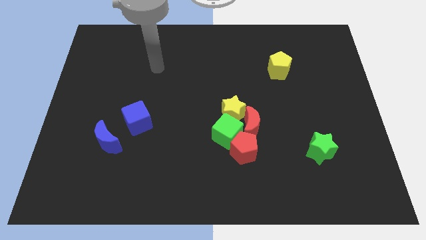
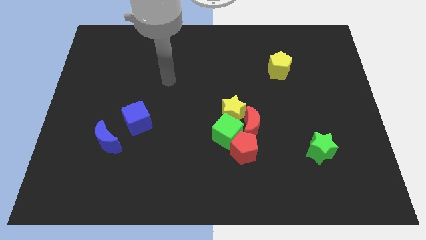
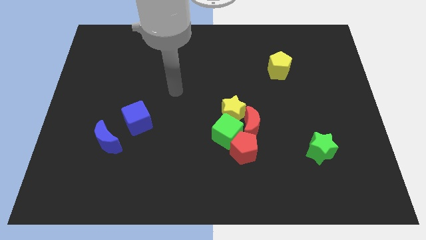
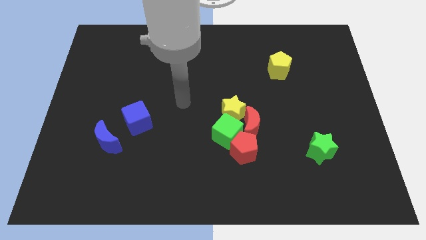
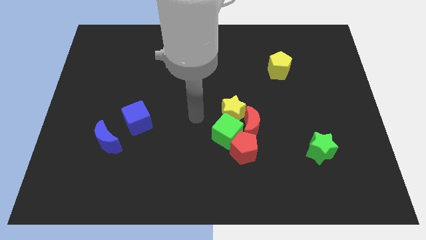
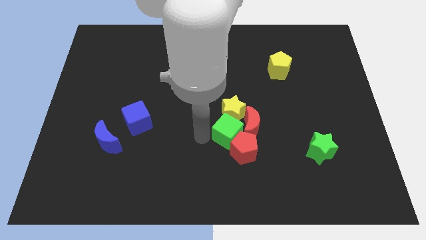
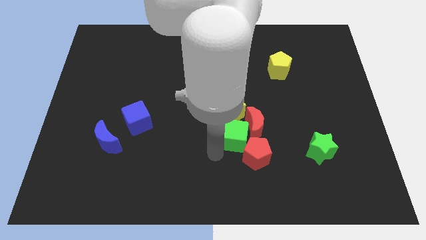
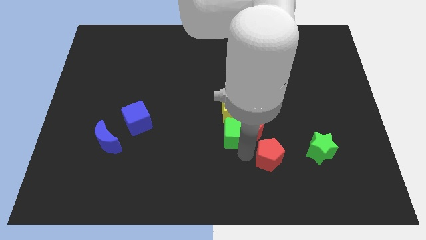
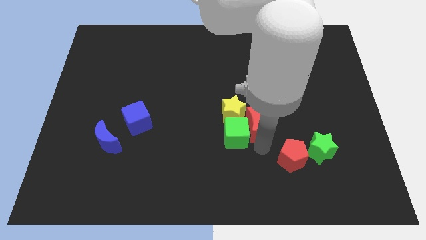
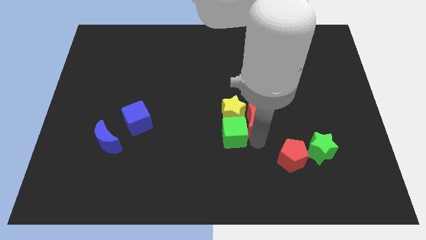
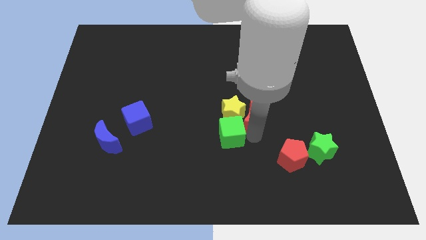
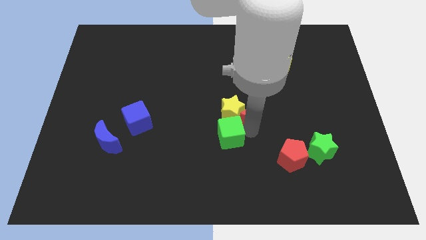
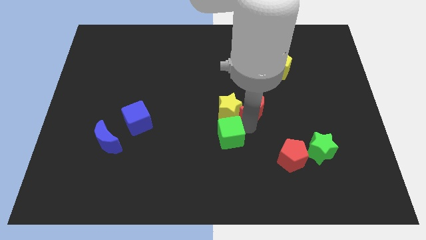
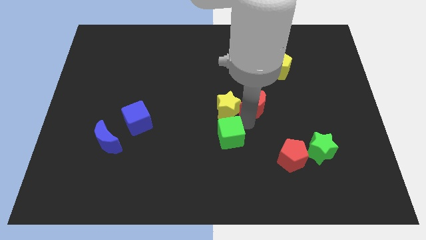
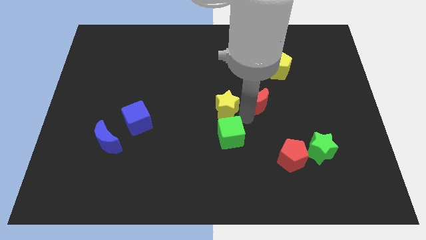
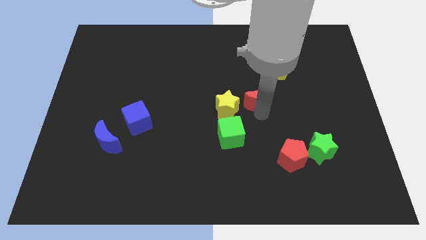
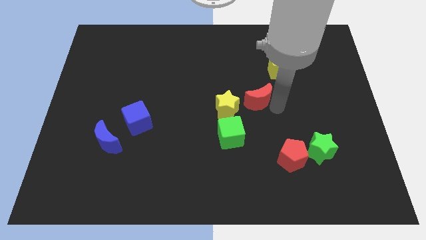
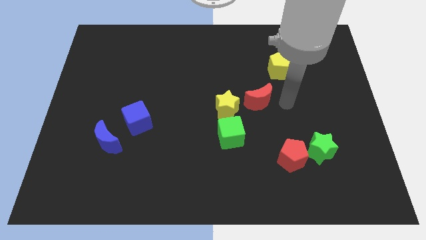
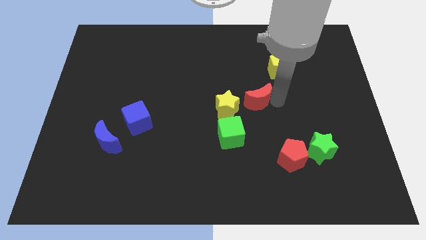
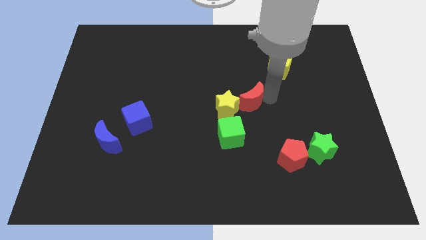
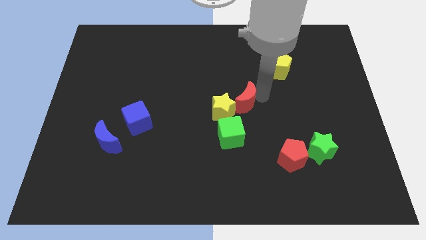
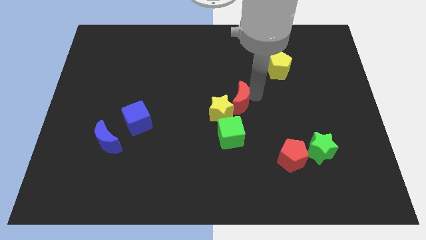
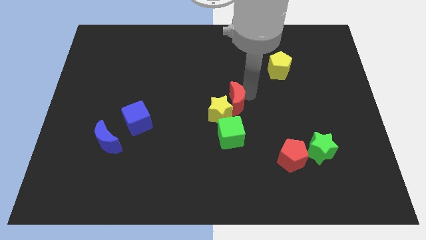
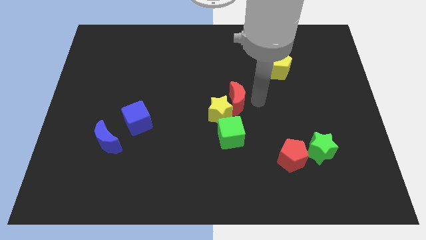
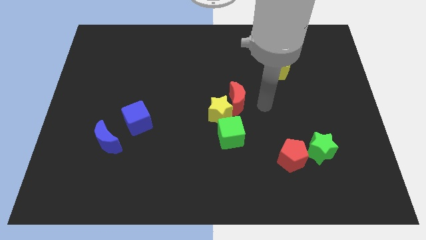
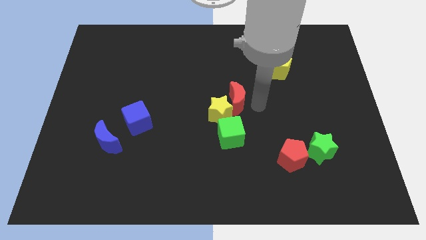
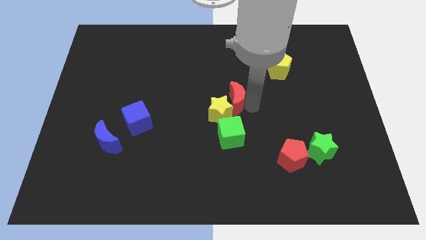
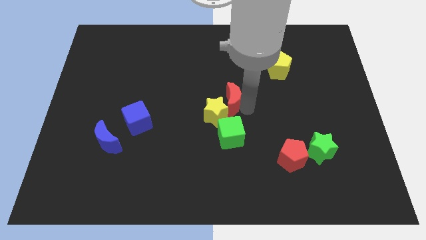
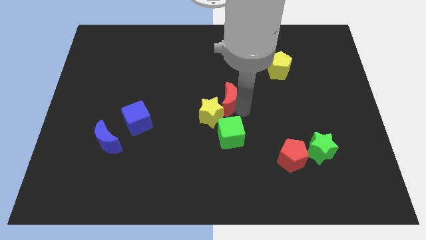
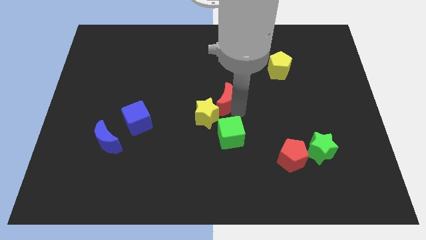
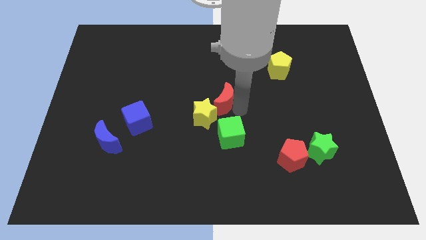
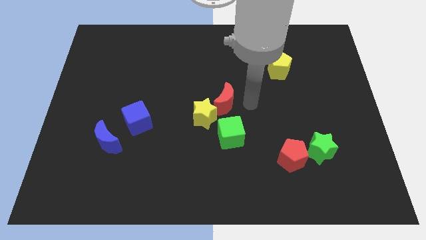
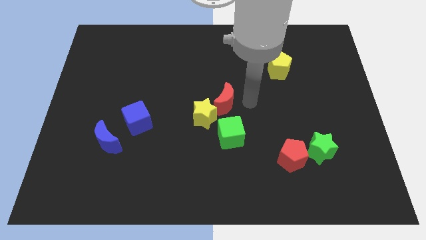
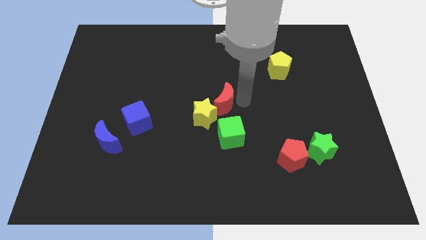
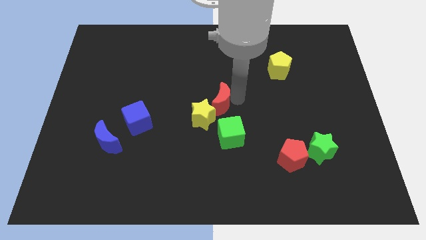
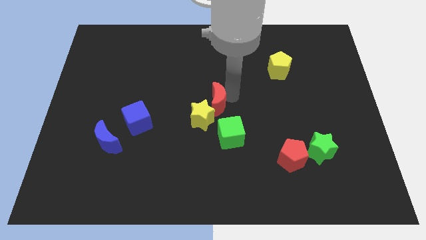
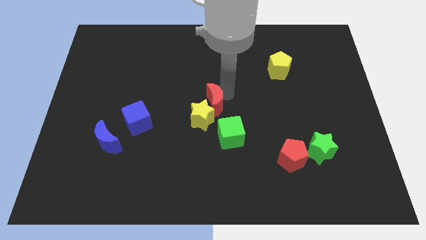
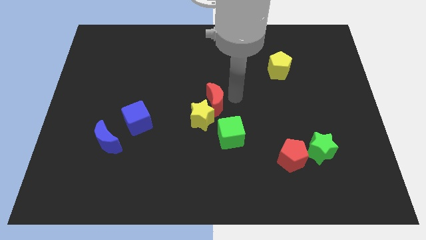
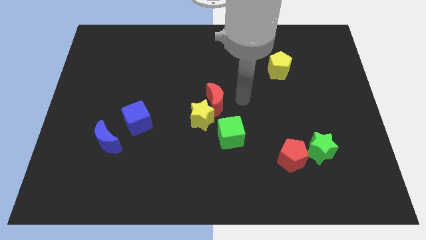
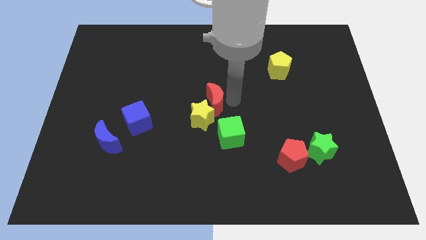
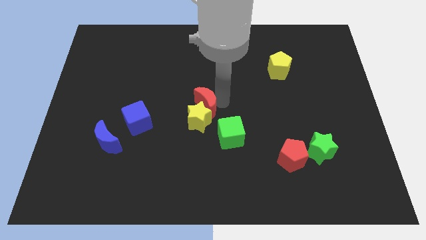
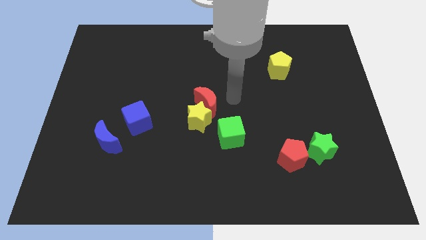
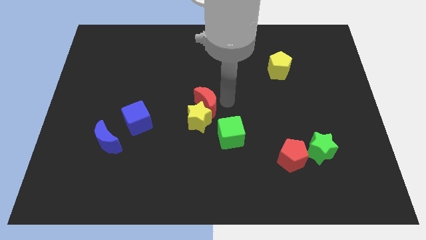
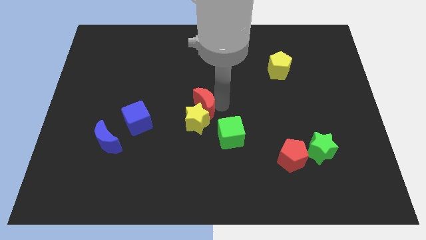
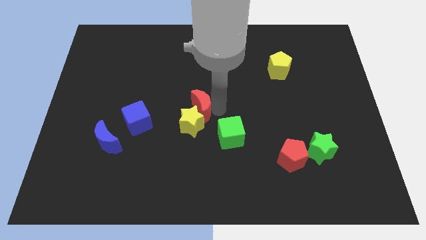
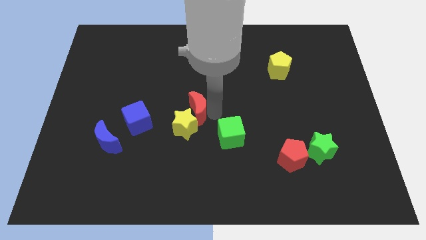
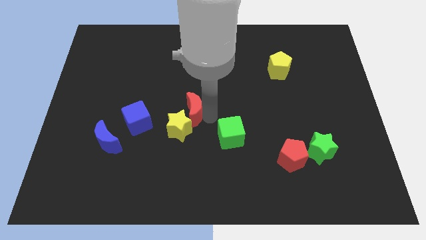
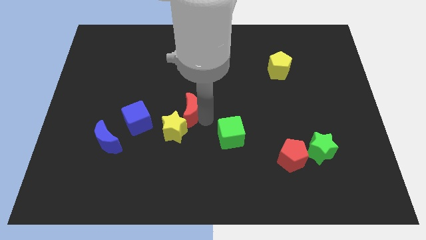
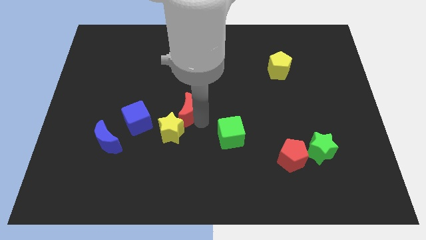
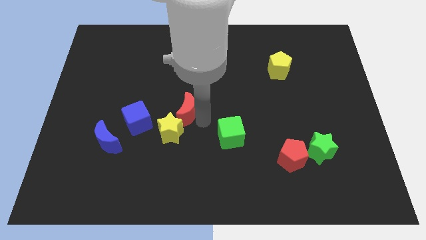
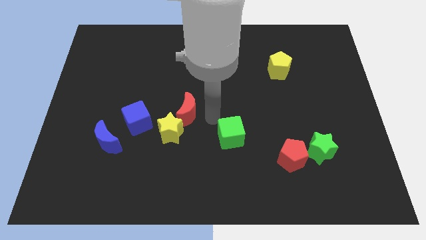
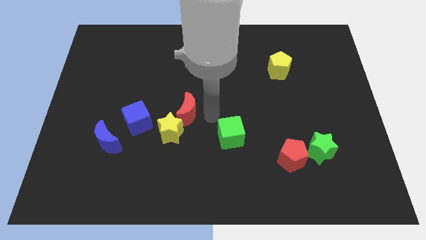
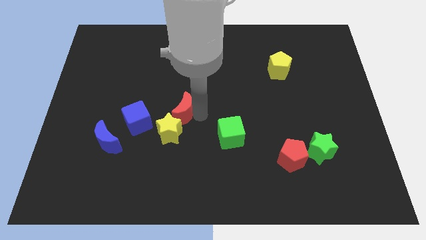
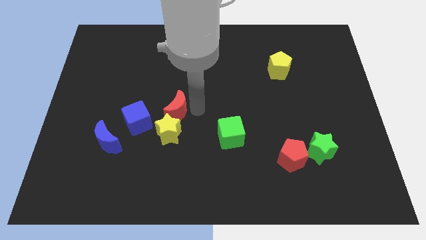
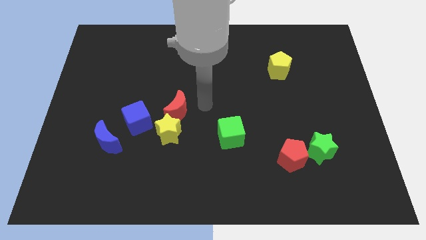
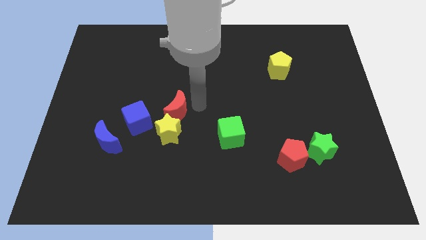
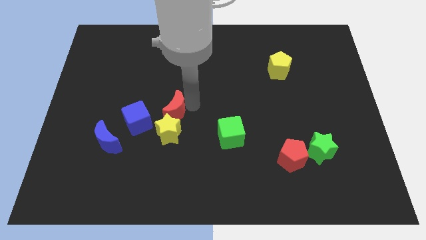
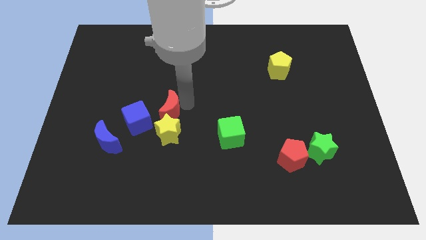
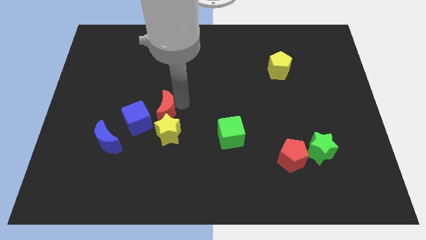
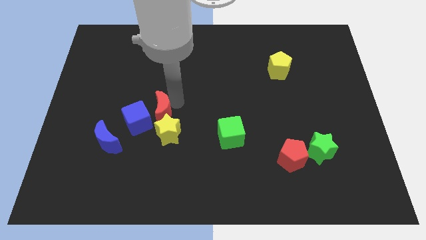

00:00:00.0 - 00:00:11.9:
move the red moon to the blue cube

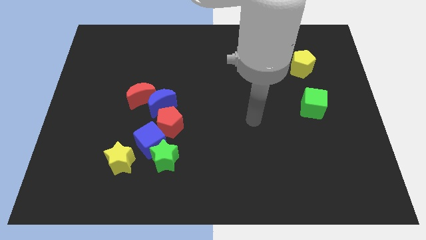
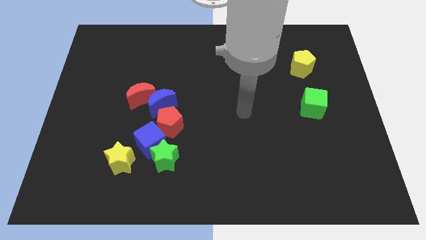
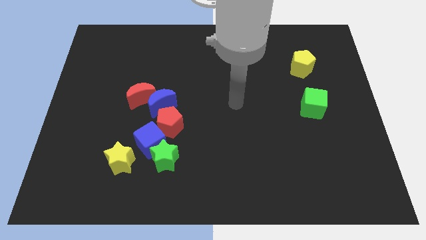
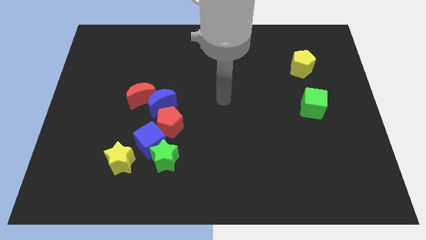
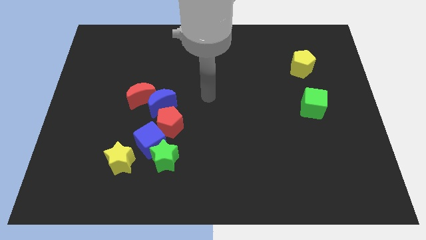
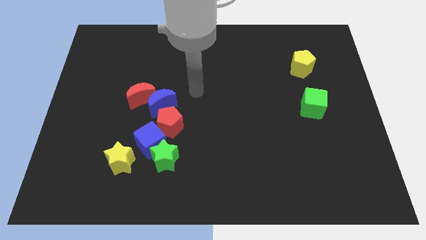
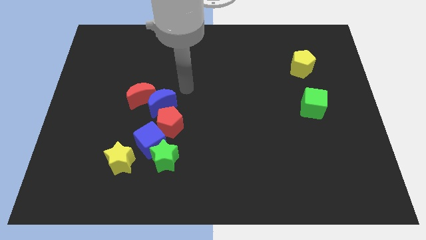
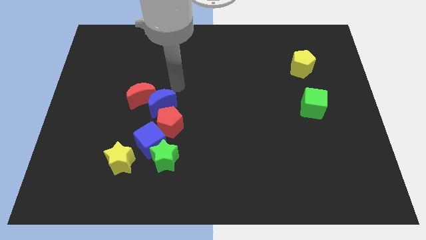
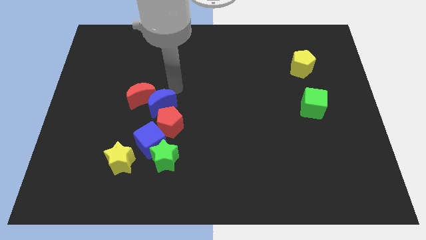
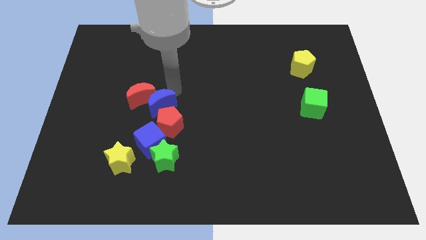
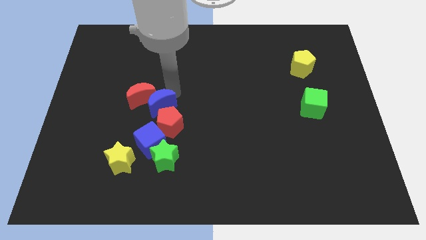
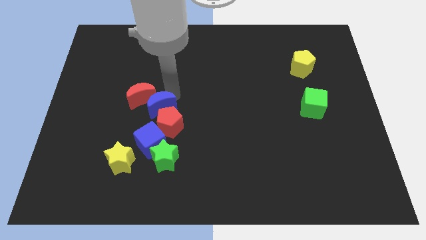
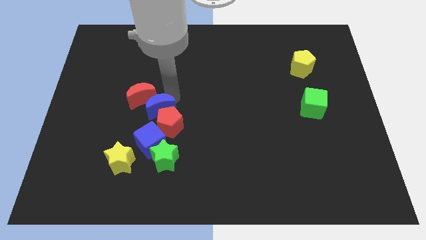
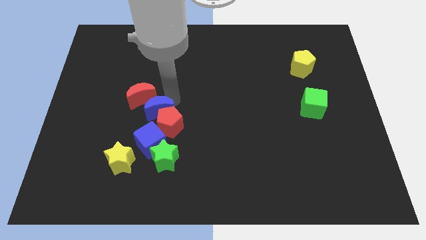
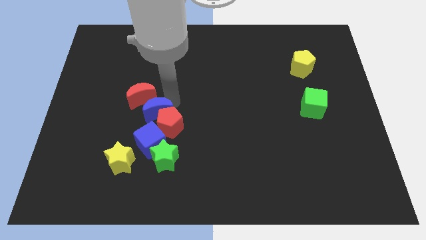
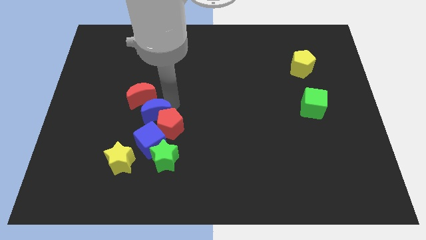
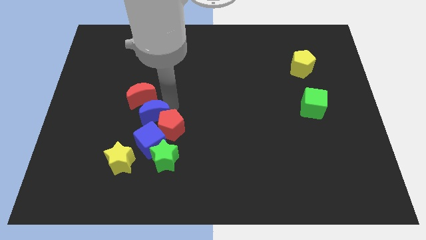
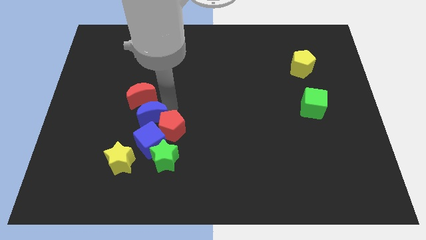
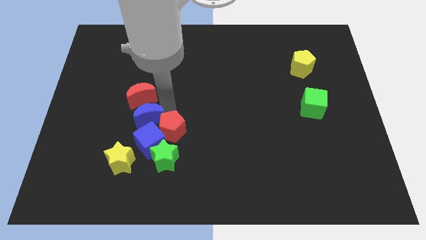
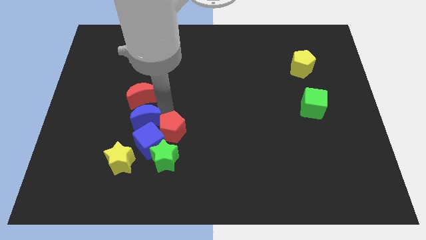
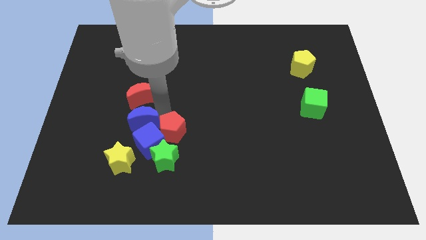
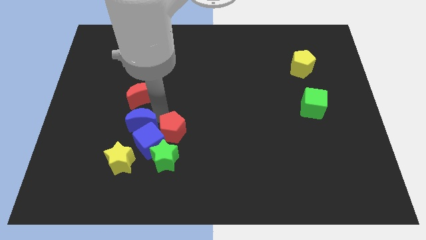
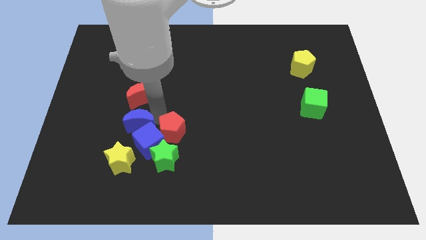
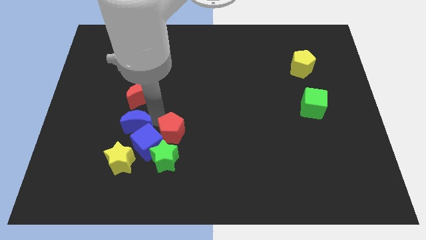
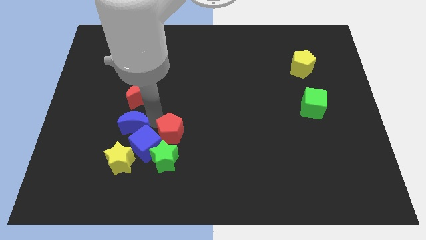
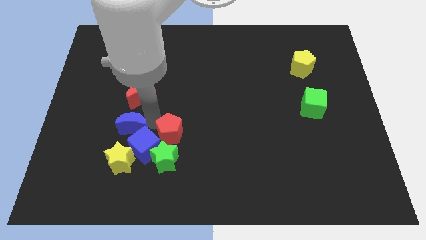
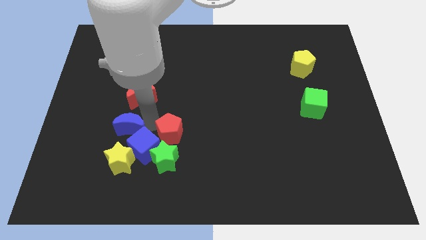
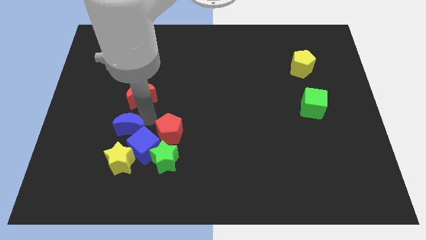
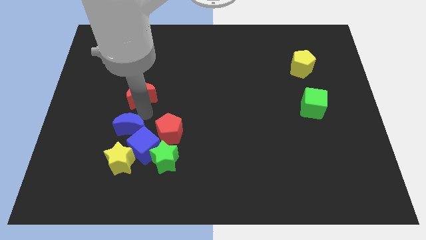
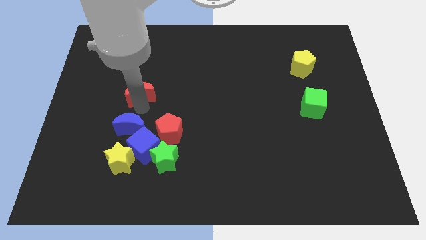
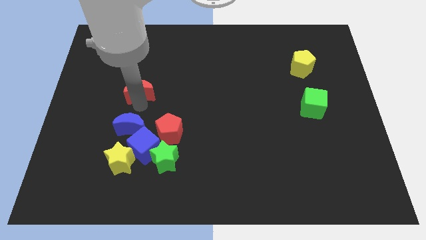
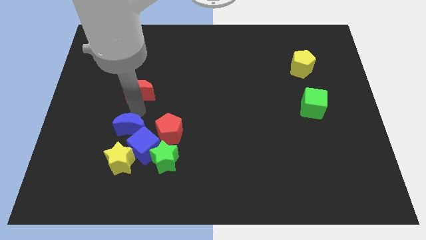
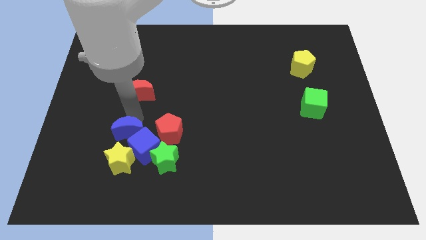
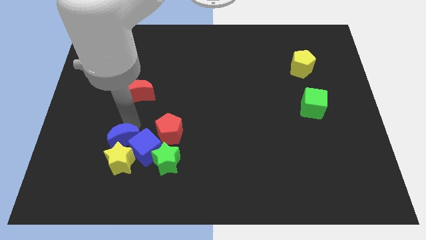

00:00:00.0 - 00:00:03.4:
push the blue moon to the yellow star
